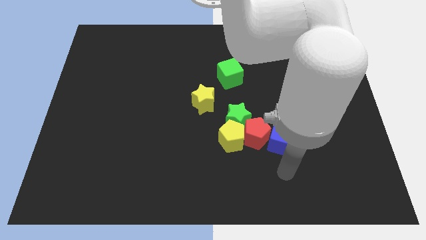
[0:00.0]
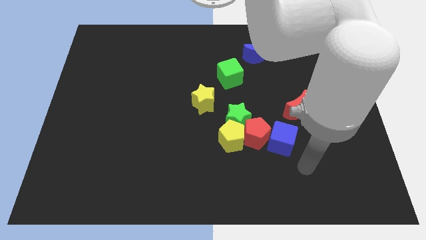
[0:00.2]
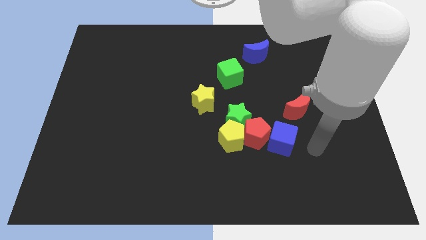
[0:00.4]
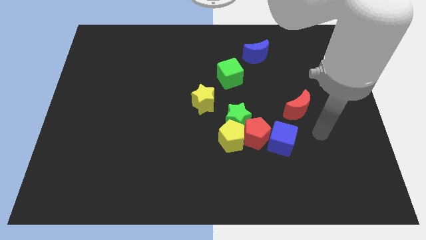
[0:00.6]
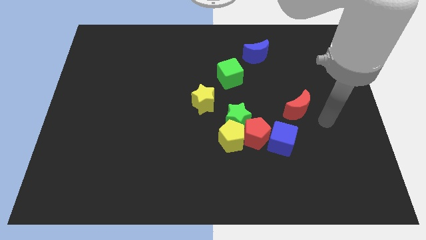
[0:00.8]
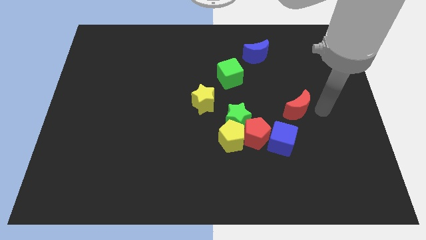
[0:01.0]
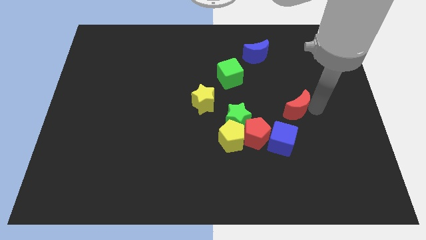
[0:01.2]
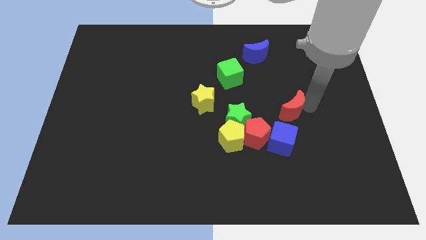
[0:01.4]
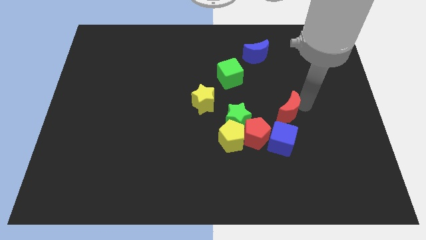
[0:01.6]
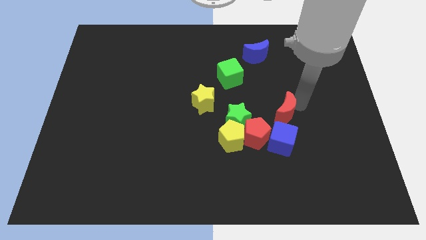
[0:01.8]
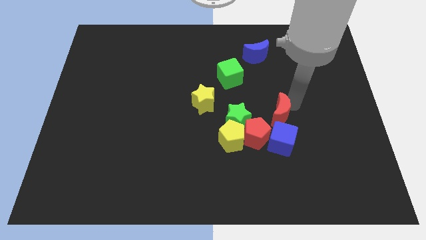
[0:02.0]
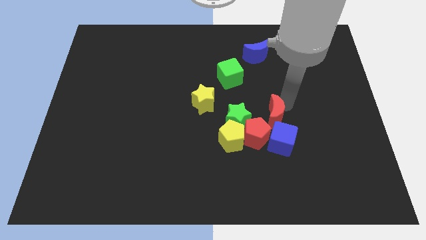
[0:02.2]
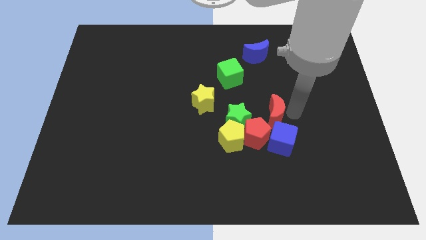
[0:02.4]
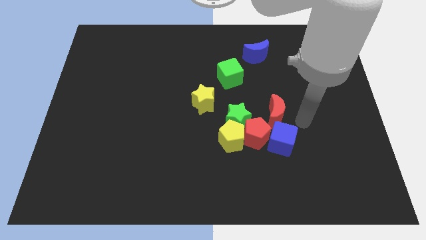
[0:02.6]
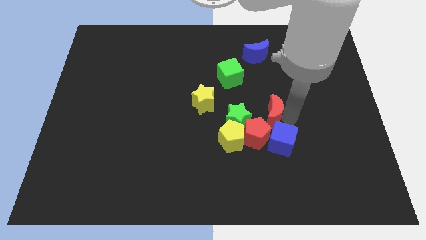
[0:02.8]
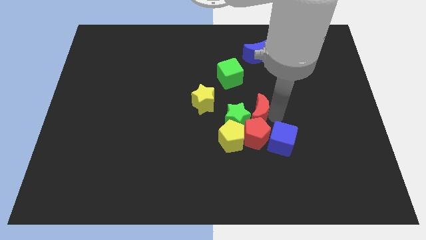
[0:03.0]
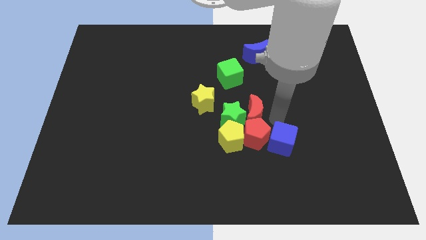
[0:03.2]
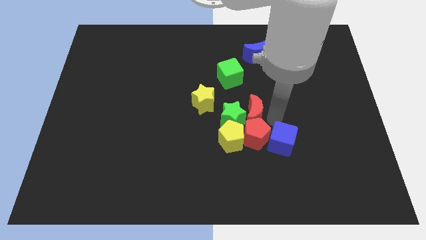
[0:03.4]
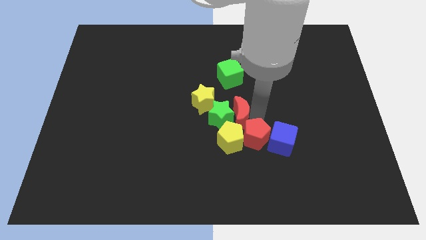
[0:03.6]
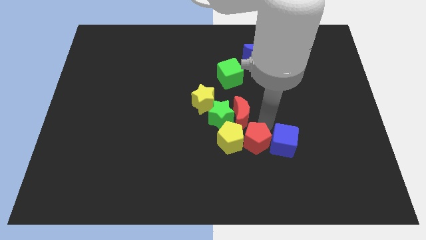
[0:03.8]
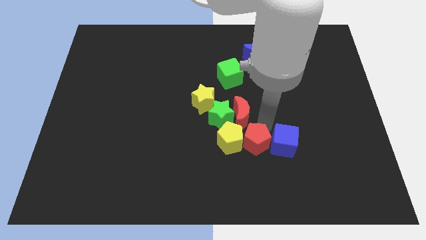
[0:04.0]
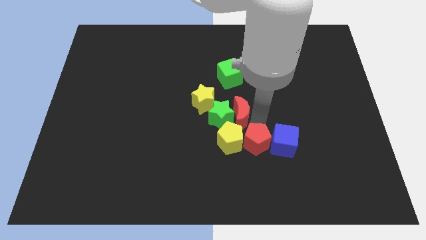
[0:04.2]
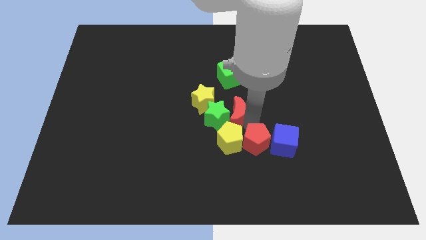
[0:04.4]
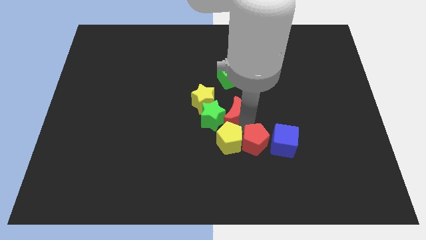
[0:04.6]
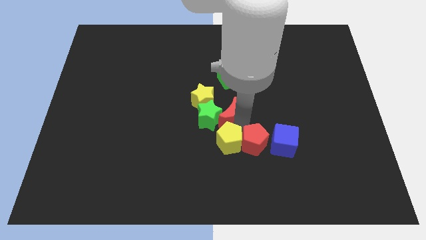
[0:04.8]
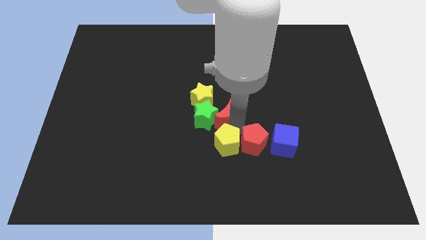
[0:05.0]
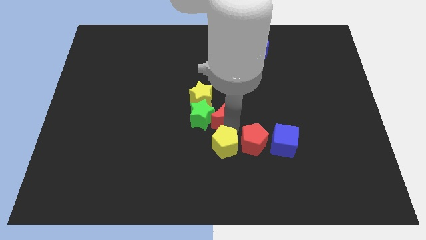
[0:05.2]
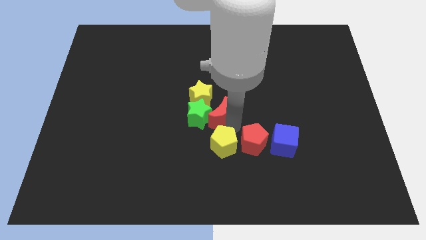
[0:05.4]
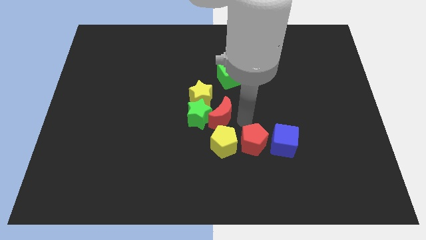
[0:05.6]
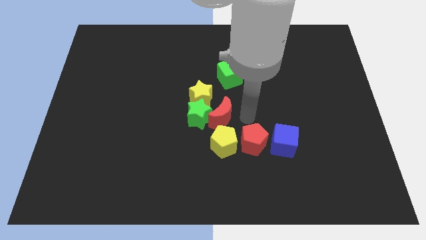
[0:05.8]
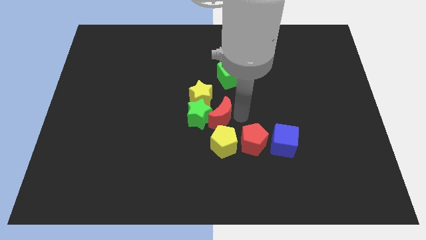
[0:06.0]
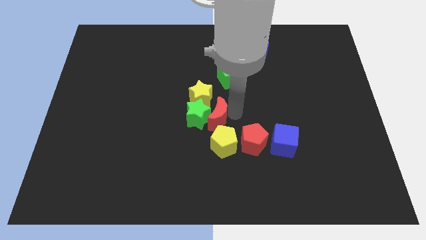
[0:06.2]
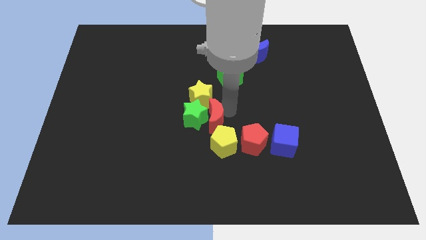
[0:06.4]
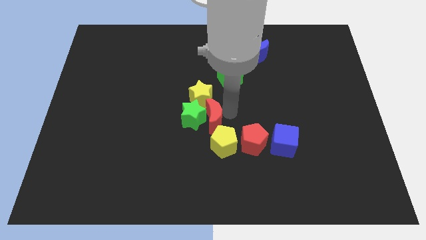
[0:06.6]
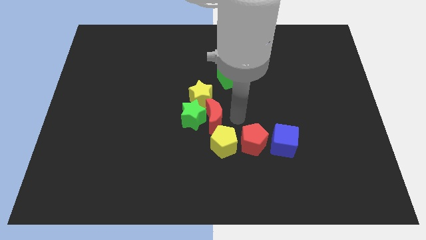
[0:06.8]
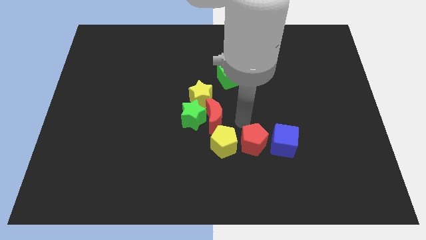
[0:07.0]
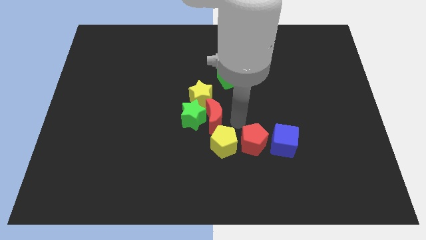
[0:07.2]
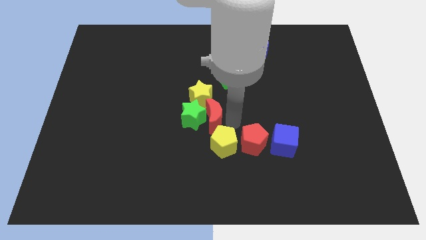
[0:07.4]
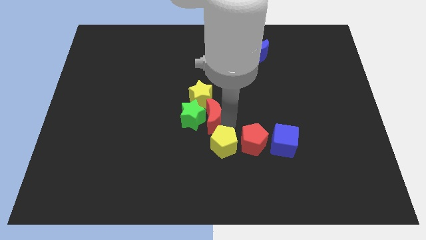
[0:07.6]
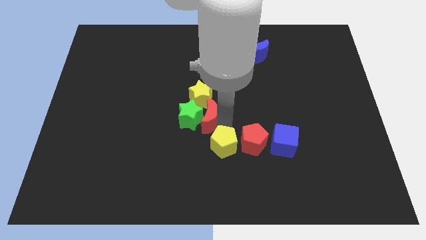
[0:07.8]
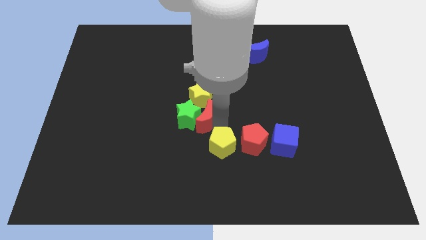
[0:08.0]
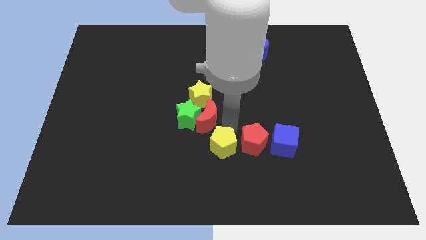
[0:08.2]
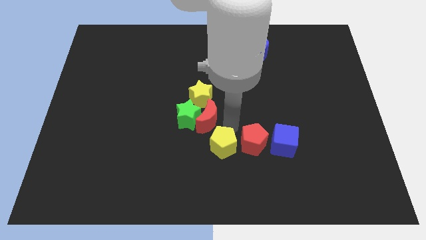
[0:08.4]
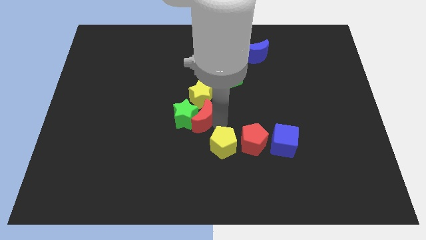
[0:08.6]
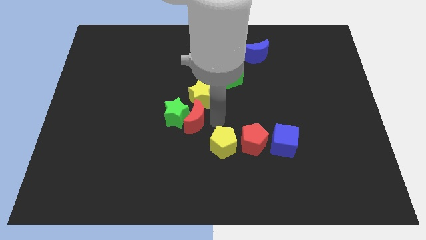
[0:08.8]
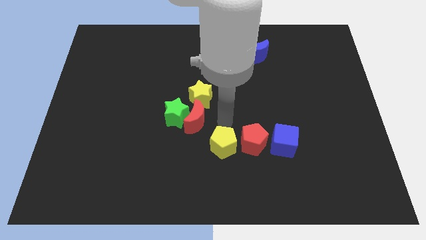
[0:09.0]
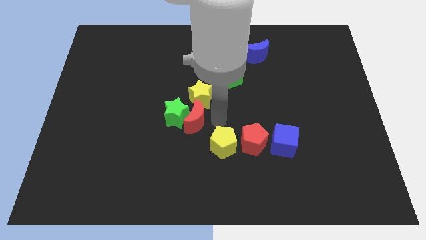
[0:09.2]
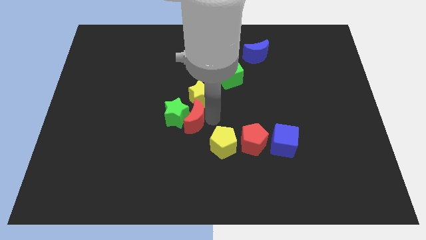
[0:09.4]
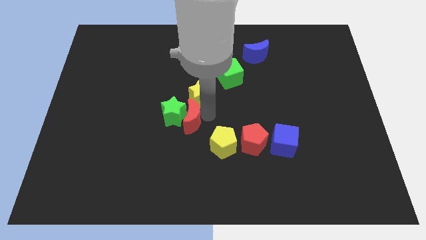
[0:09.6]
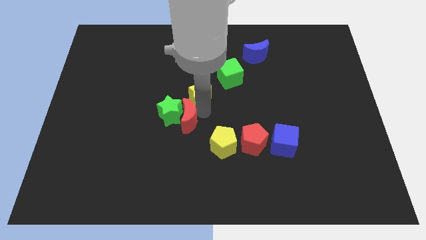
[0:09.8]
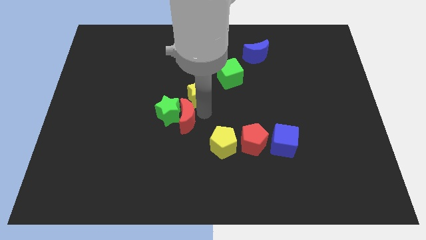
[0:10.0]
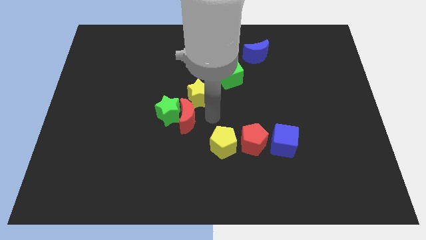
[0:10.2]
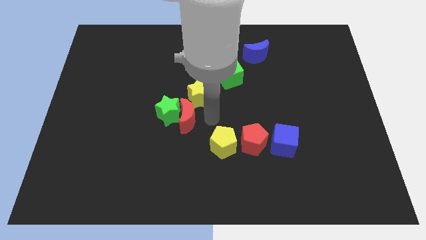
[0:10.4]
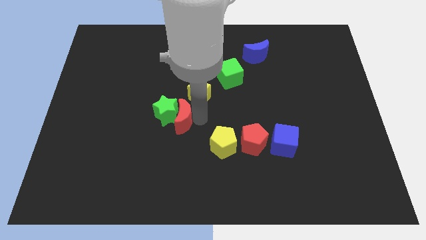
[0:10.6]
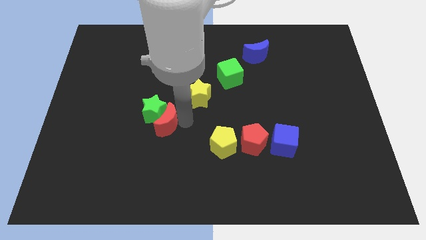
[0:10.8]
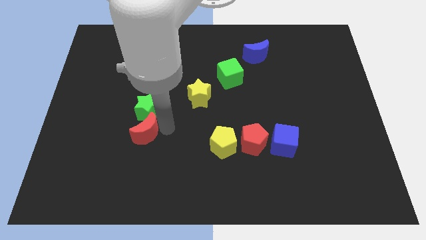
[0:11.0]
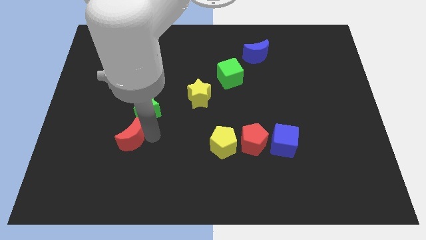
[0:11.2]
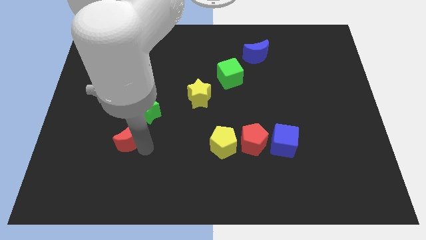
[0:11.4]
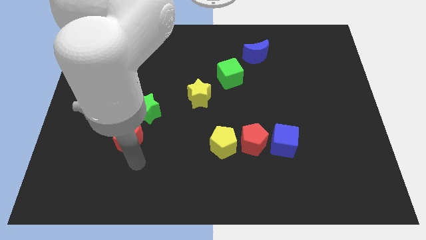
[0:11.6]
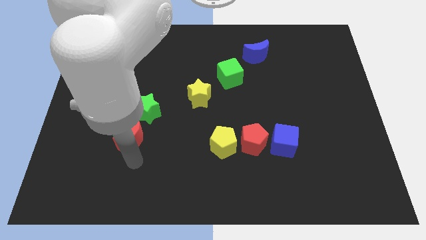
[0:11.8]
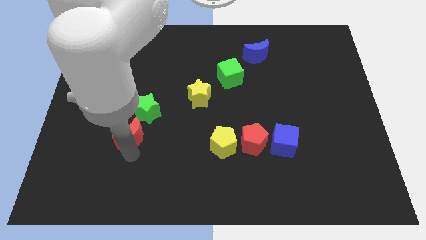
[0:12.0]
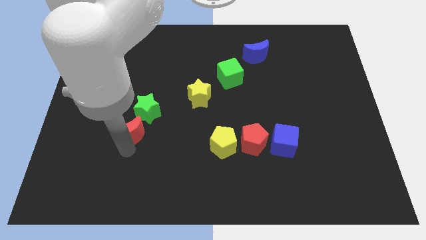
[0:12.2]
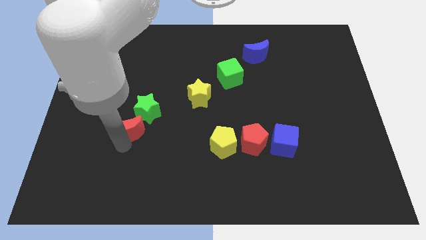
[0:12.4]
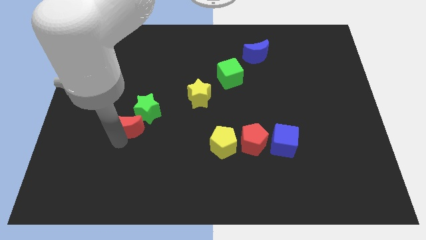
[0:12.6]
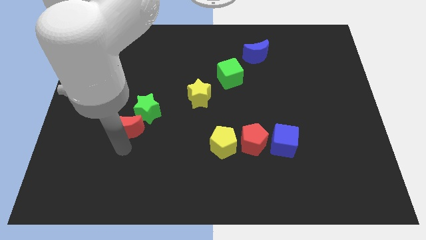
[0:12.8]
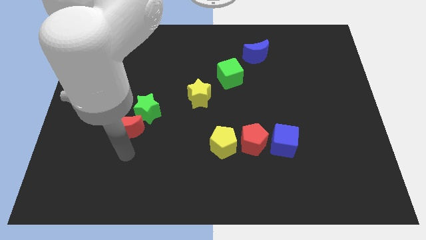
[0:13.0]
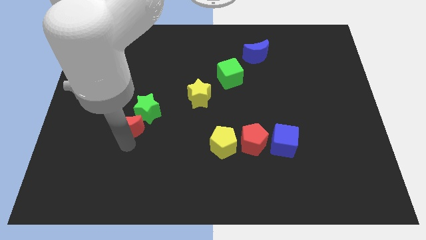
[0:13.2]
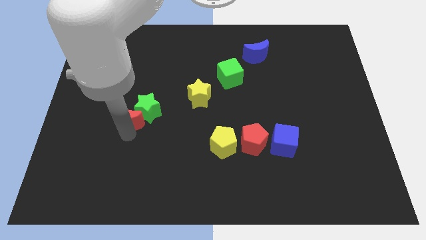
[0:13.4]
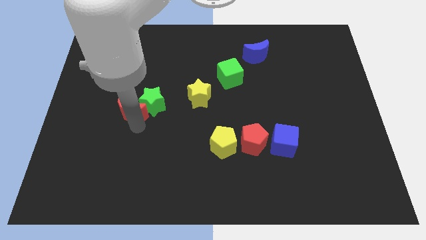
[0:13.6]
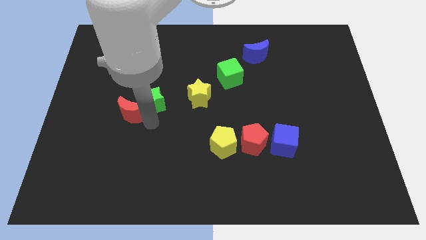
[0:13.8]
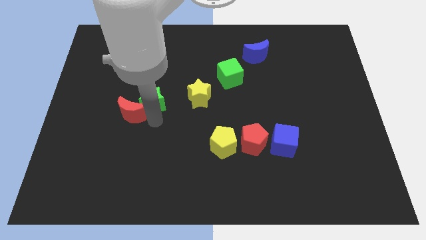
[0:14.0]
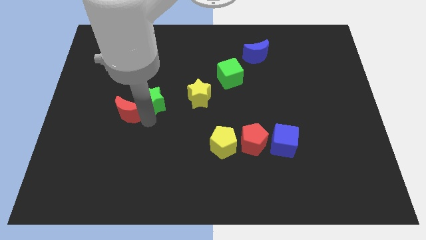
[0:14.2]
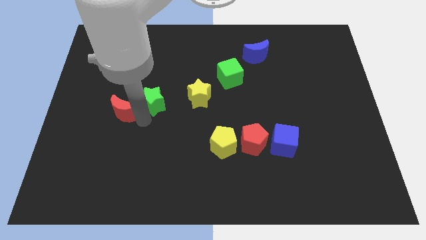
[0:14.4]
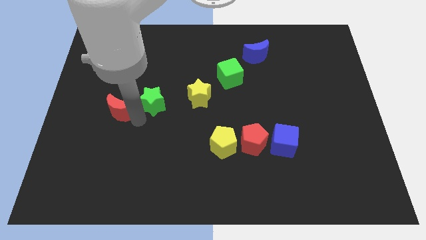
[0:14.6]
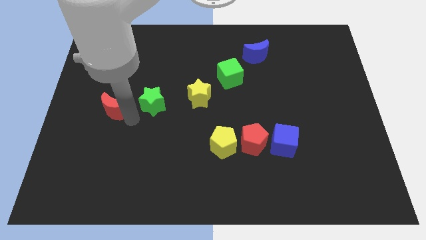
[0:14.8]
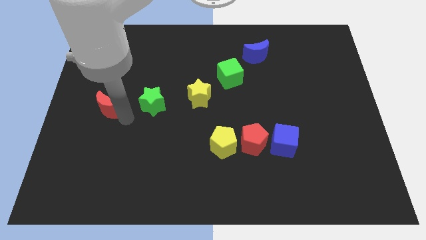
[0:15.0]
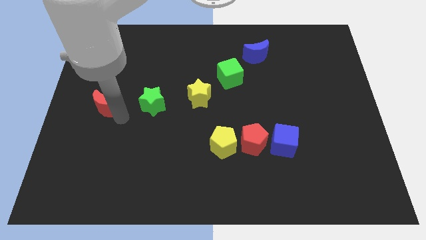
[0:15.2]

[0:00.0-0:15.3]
push the red moon to the left side

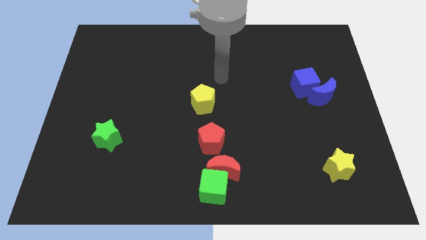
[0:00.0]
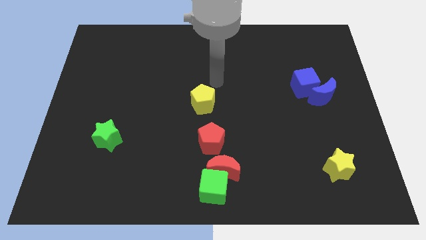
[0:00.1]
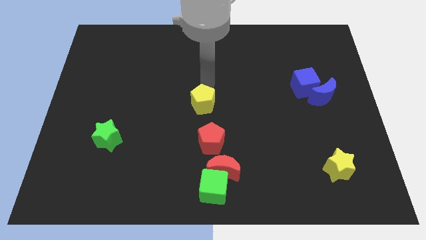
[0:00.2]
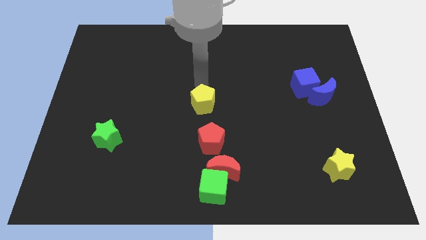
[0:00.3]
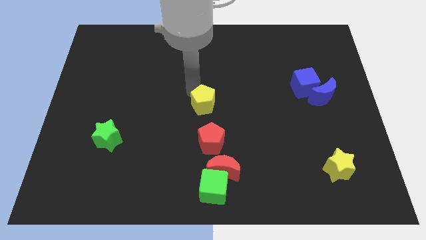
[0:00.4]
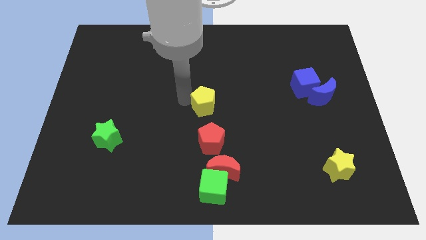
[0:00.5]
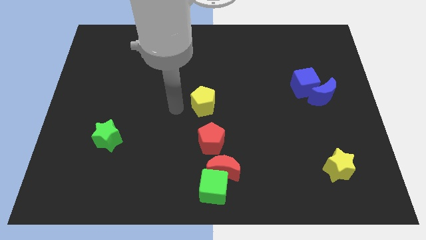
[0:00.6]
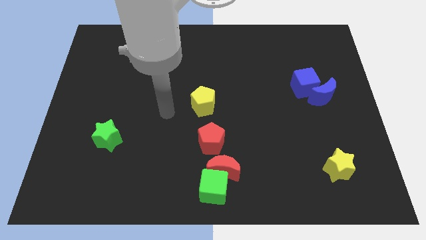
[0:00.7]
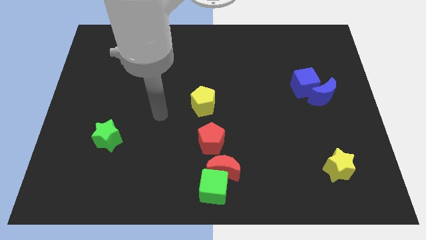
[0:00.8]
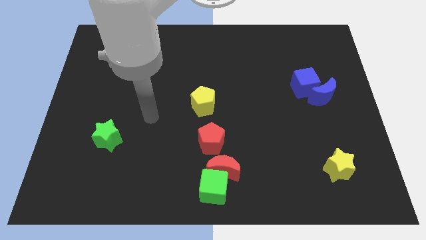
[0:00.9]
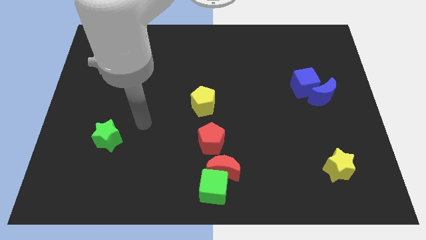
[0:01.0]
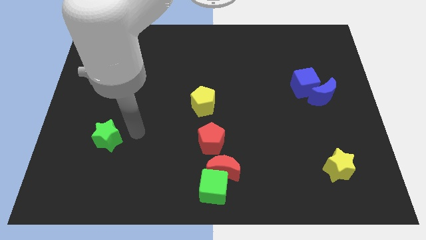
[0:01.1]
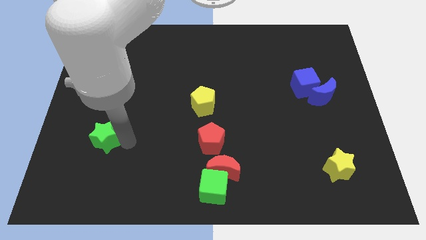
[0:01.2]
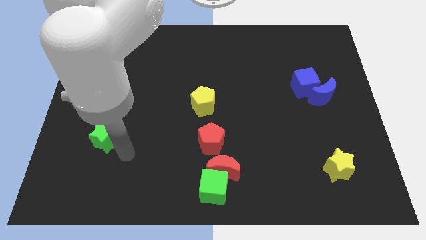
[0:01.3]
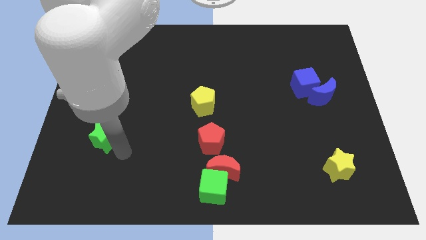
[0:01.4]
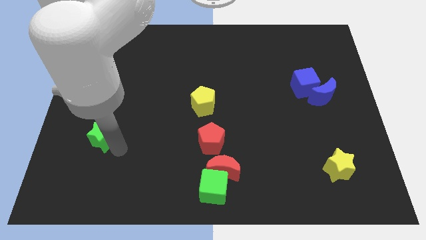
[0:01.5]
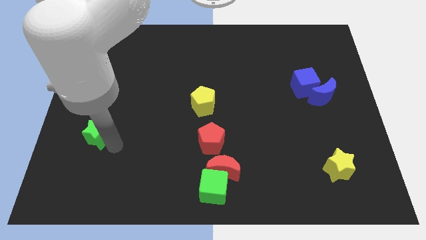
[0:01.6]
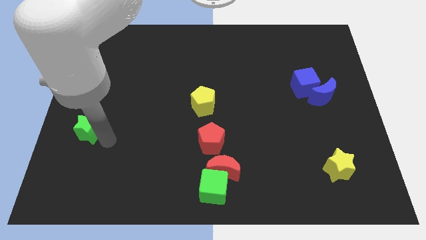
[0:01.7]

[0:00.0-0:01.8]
move the green star to the left side
